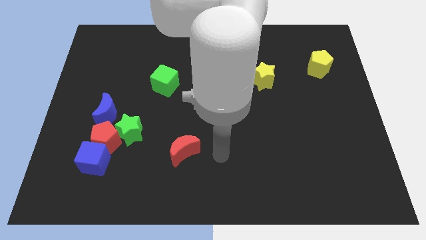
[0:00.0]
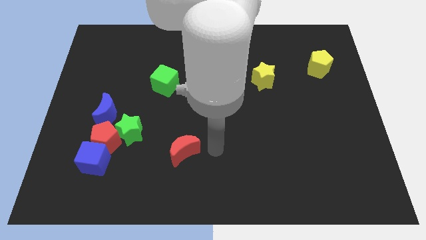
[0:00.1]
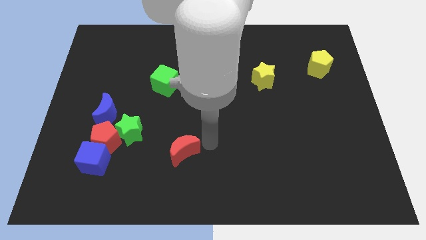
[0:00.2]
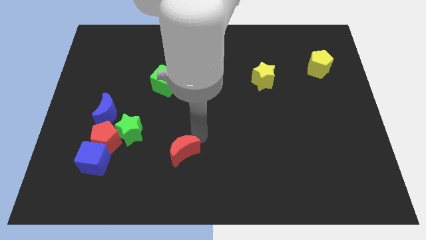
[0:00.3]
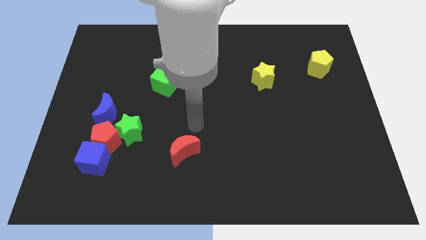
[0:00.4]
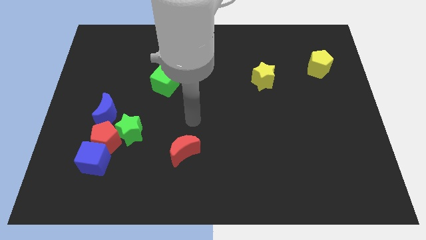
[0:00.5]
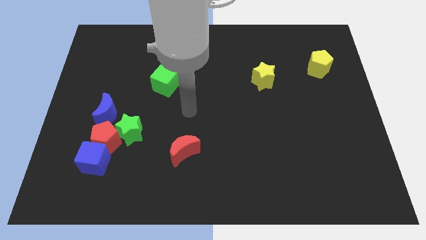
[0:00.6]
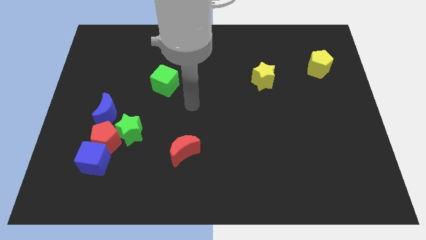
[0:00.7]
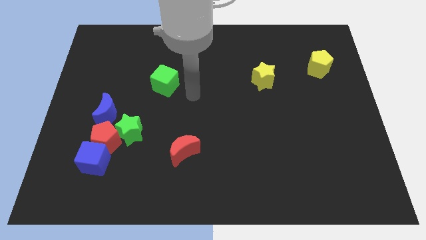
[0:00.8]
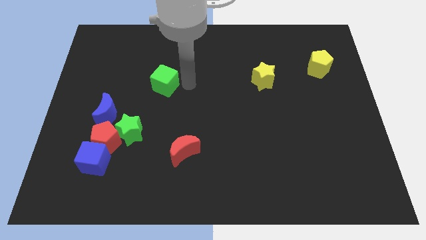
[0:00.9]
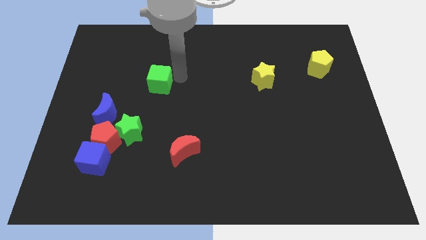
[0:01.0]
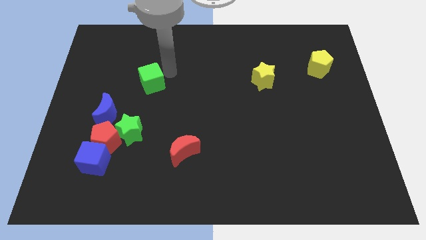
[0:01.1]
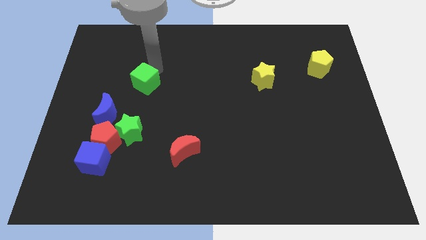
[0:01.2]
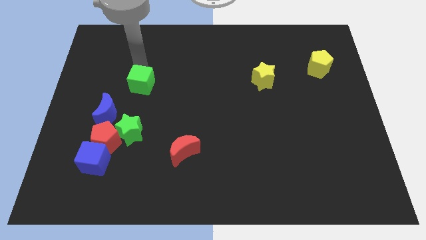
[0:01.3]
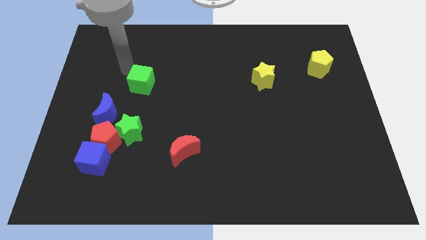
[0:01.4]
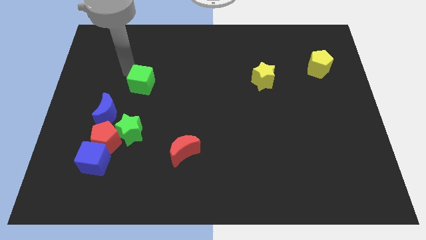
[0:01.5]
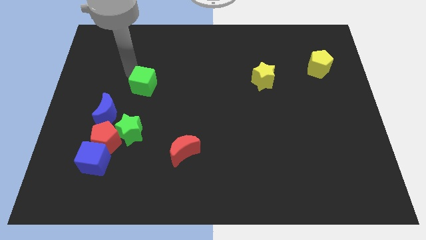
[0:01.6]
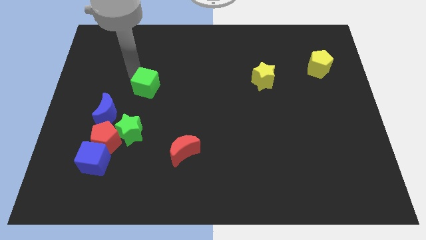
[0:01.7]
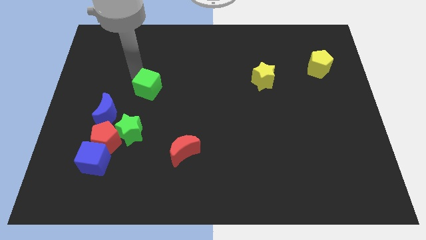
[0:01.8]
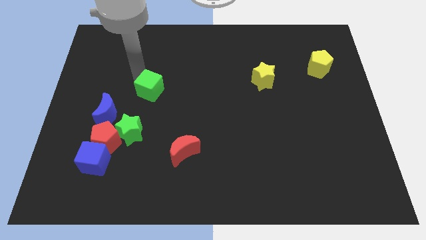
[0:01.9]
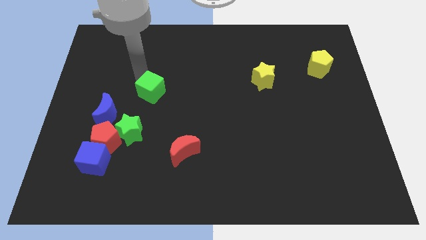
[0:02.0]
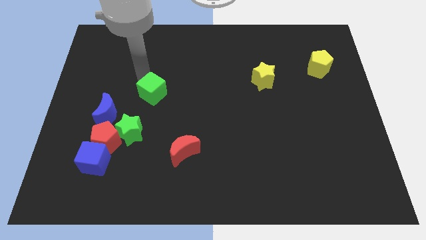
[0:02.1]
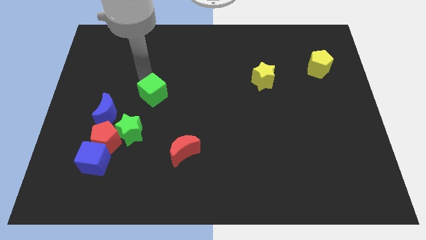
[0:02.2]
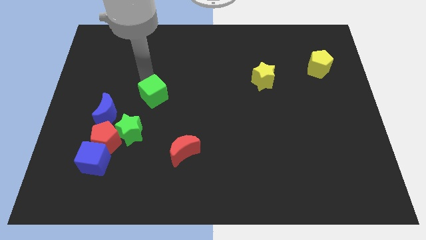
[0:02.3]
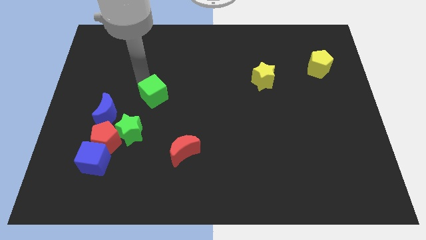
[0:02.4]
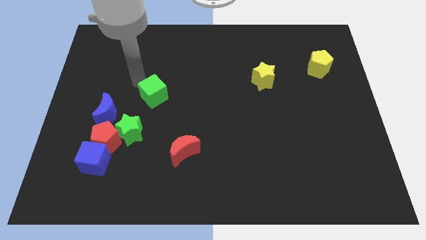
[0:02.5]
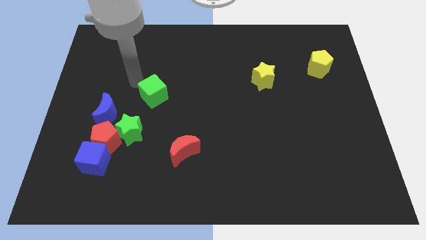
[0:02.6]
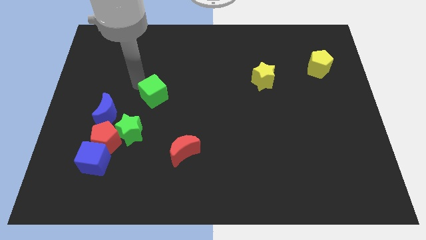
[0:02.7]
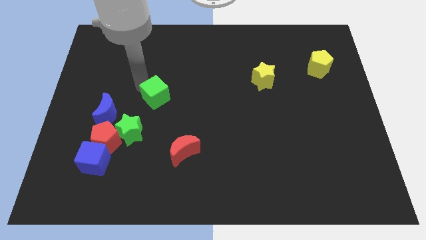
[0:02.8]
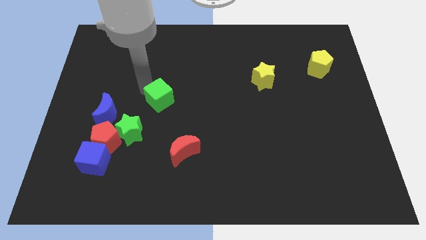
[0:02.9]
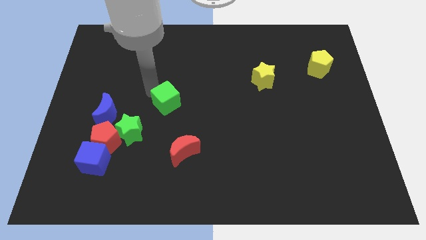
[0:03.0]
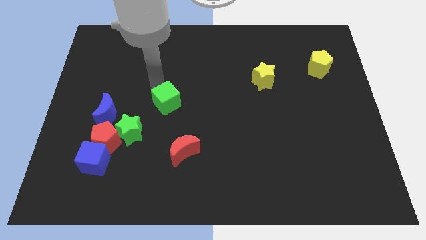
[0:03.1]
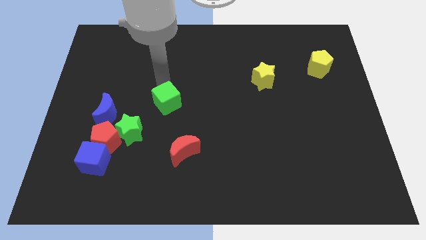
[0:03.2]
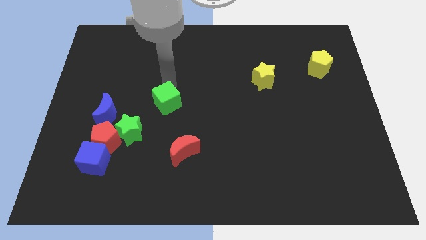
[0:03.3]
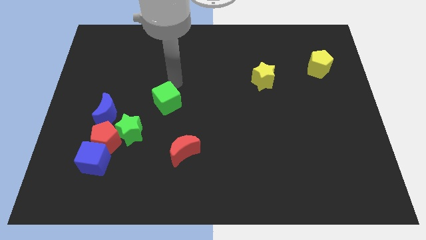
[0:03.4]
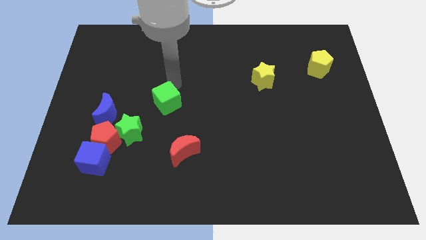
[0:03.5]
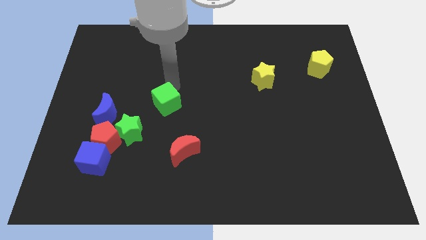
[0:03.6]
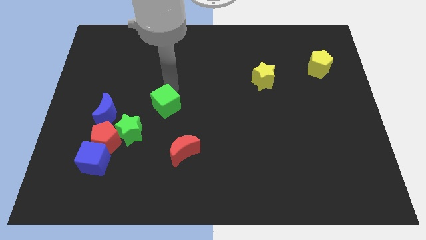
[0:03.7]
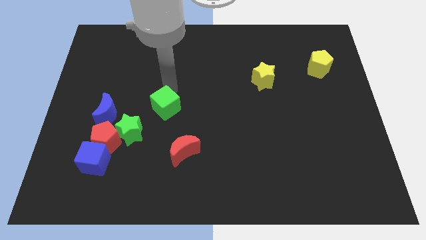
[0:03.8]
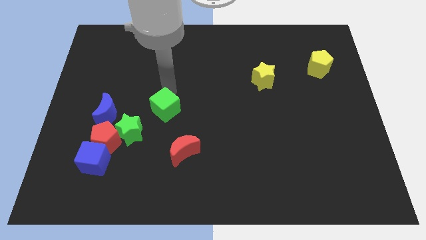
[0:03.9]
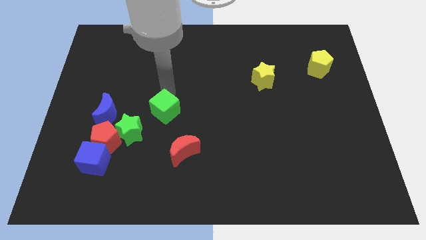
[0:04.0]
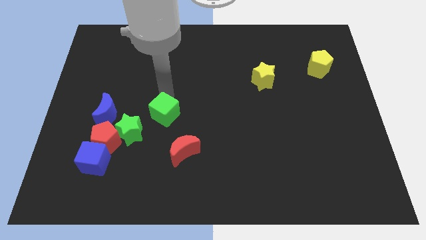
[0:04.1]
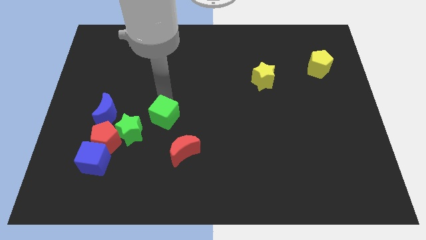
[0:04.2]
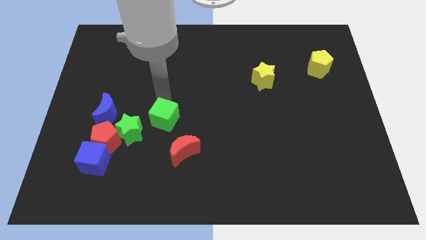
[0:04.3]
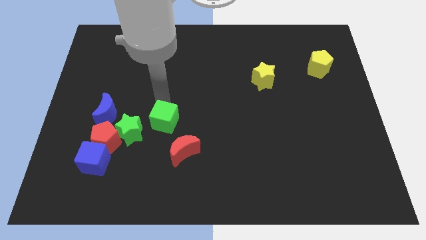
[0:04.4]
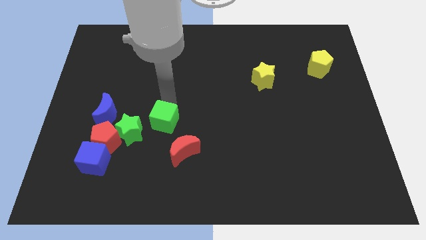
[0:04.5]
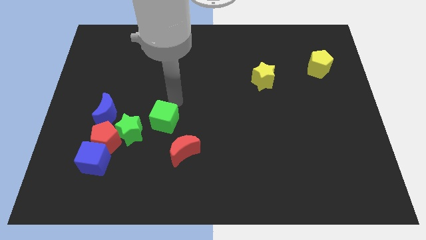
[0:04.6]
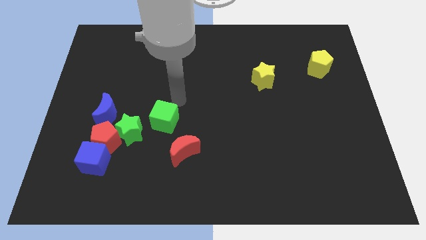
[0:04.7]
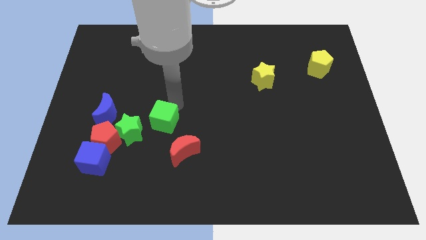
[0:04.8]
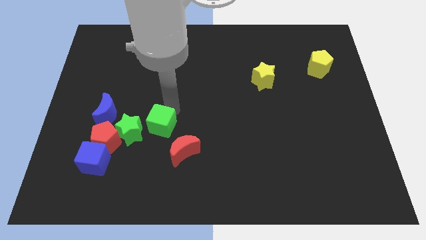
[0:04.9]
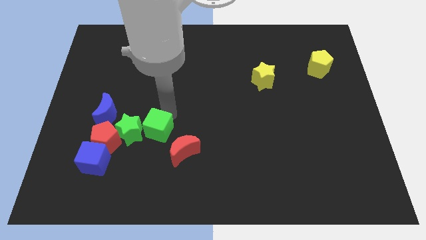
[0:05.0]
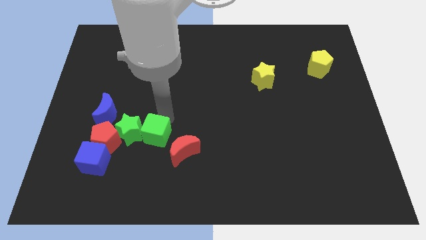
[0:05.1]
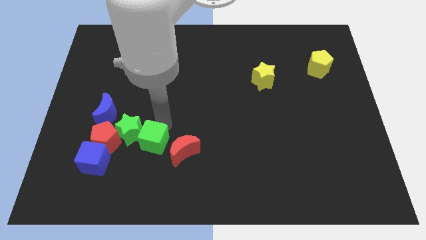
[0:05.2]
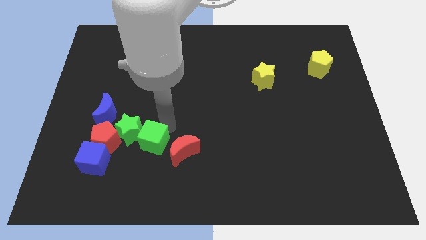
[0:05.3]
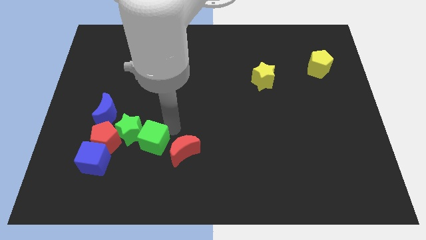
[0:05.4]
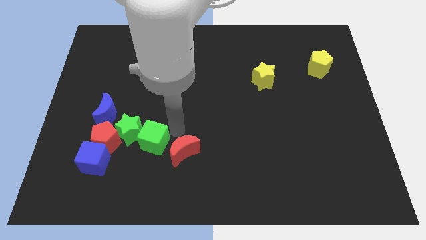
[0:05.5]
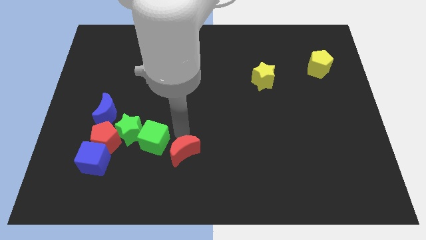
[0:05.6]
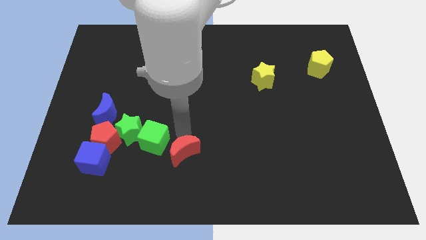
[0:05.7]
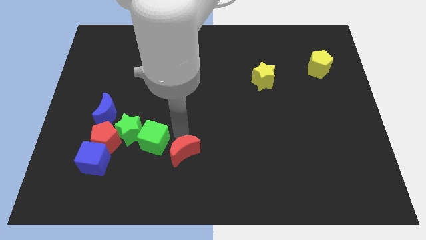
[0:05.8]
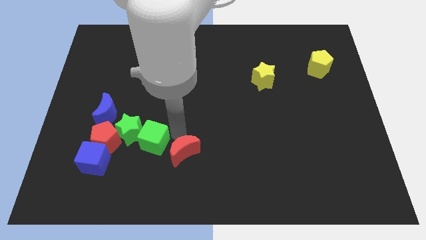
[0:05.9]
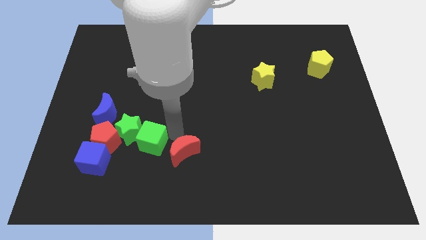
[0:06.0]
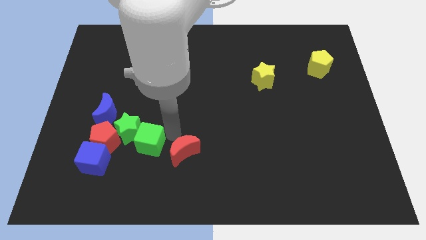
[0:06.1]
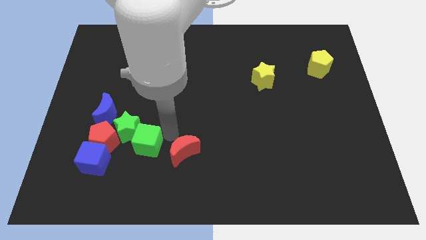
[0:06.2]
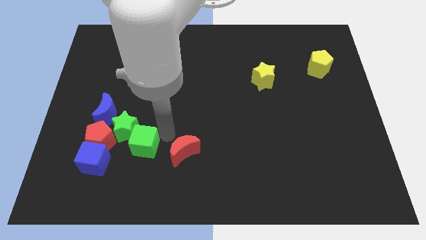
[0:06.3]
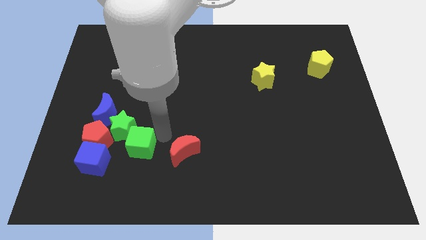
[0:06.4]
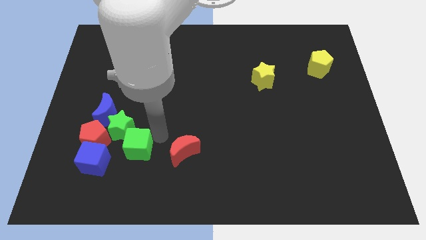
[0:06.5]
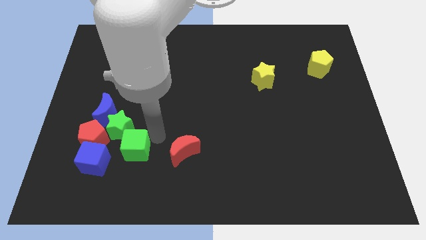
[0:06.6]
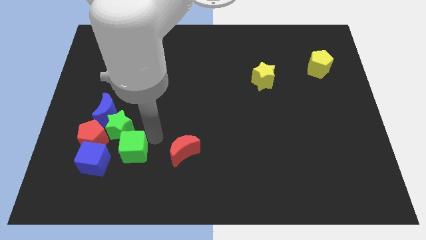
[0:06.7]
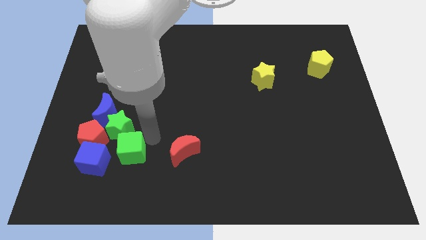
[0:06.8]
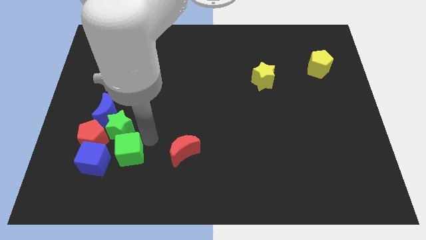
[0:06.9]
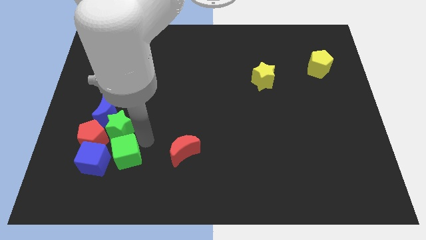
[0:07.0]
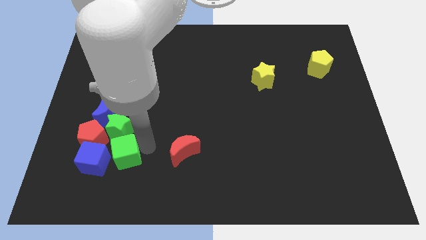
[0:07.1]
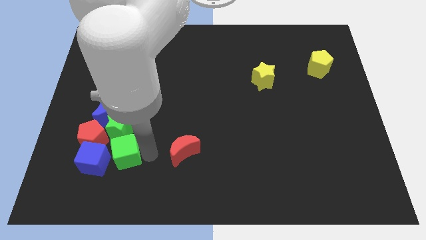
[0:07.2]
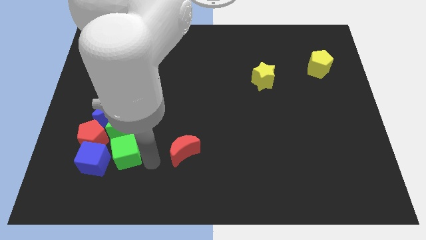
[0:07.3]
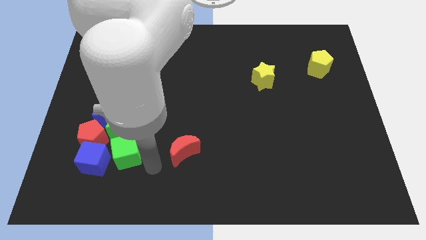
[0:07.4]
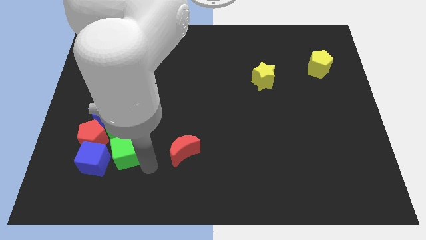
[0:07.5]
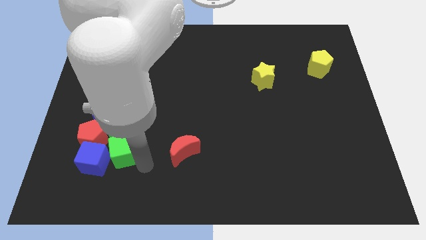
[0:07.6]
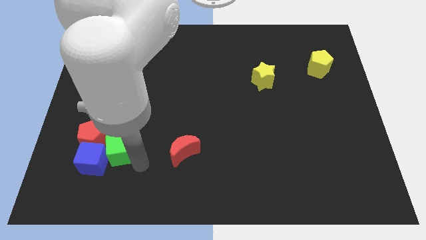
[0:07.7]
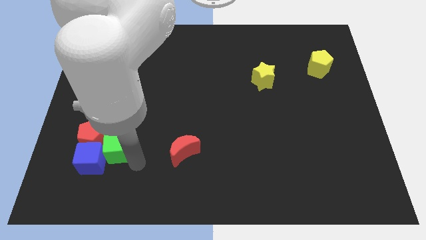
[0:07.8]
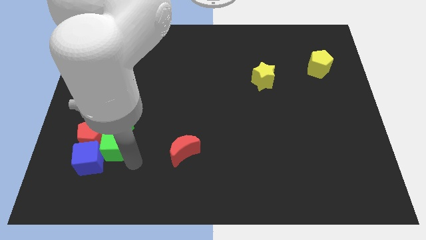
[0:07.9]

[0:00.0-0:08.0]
move the green cube to the red pentagon
